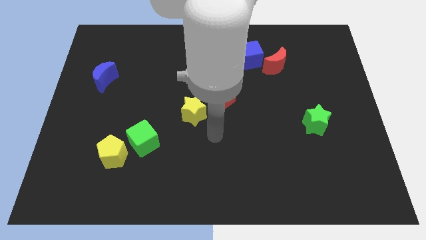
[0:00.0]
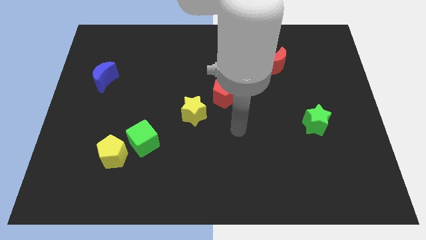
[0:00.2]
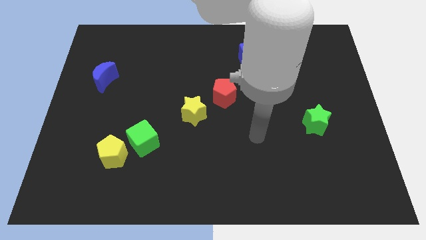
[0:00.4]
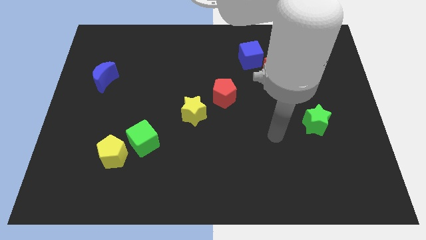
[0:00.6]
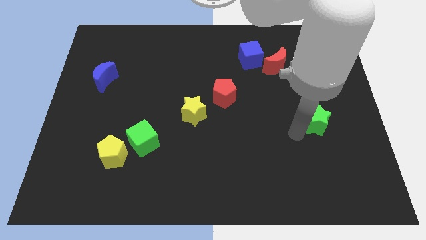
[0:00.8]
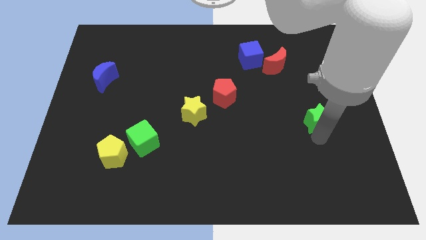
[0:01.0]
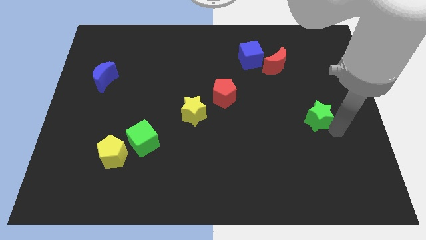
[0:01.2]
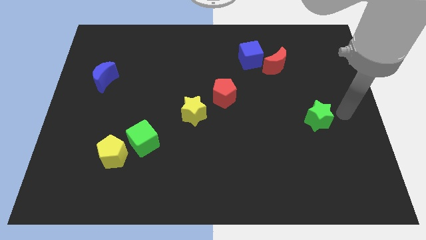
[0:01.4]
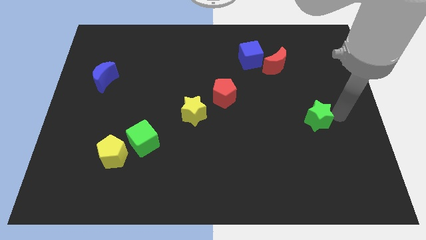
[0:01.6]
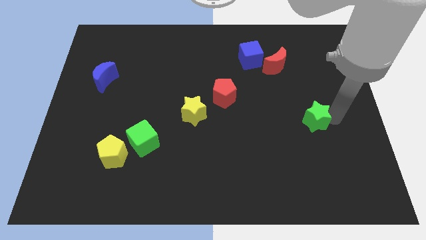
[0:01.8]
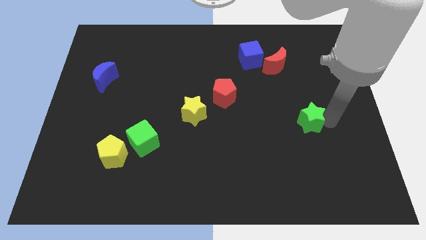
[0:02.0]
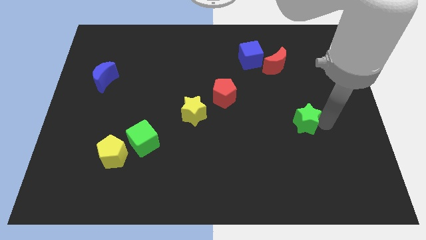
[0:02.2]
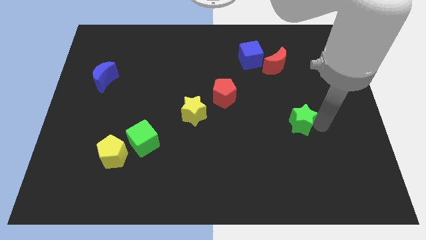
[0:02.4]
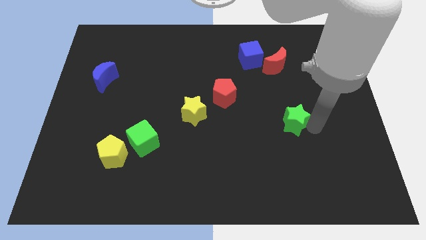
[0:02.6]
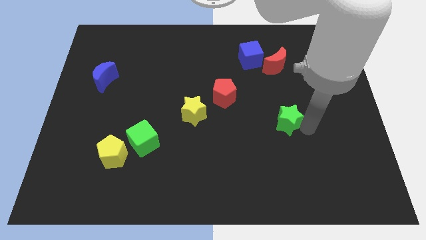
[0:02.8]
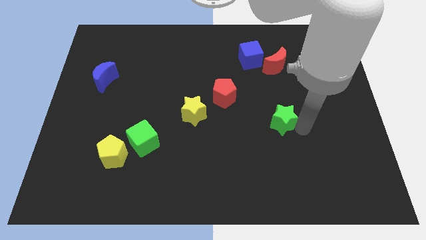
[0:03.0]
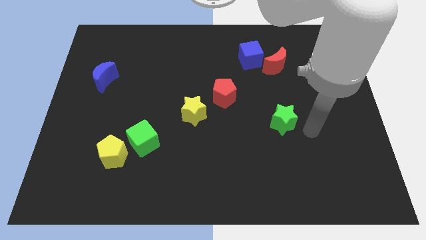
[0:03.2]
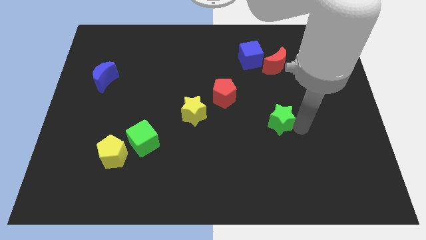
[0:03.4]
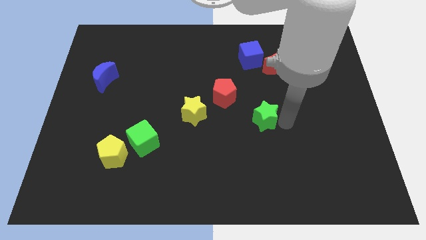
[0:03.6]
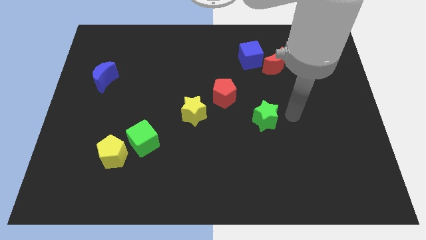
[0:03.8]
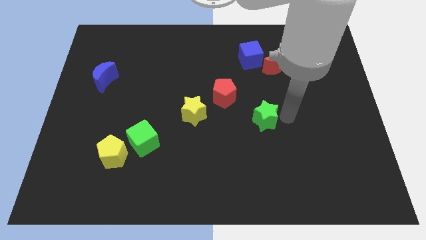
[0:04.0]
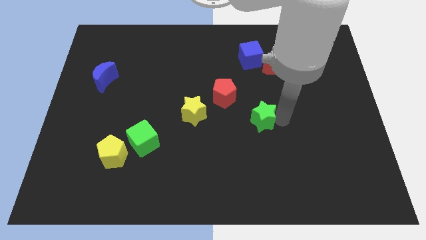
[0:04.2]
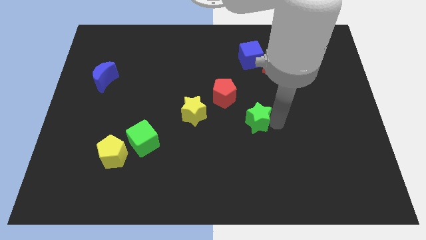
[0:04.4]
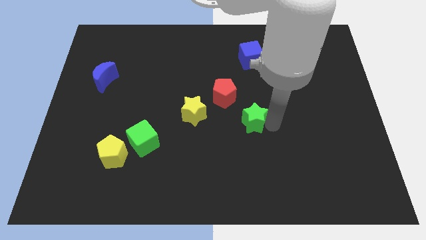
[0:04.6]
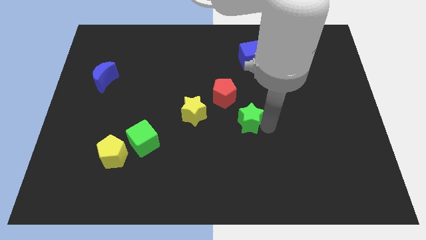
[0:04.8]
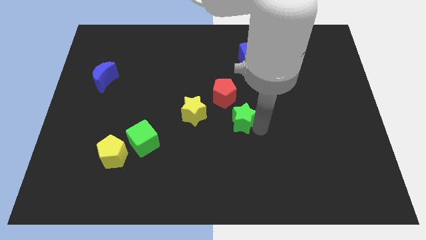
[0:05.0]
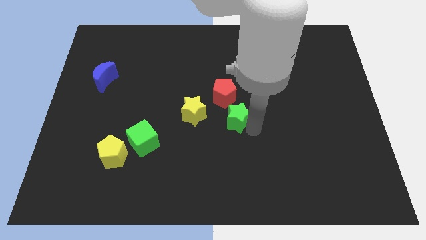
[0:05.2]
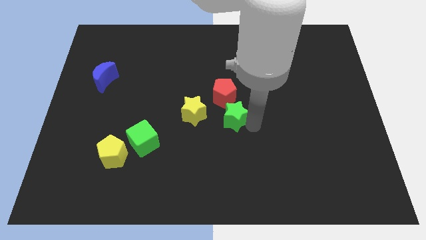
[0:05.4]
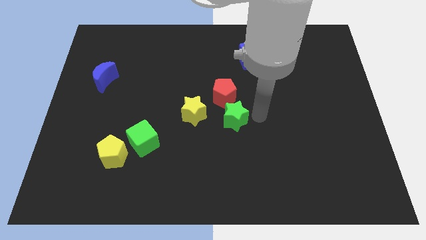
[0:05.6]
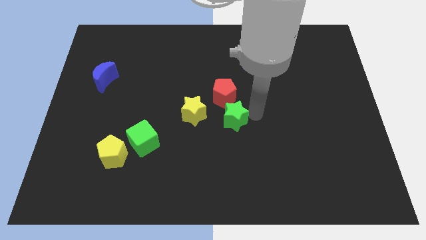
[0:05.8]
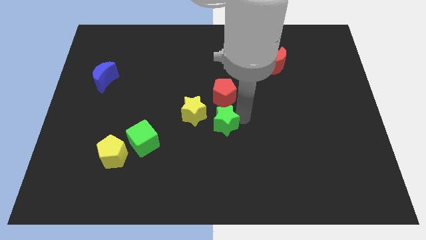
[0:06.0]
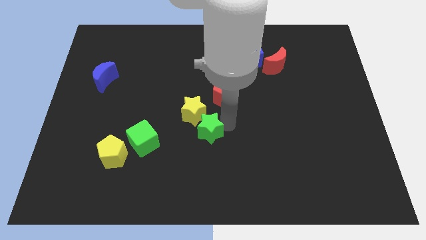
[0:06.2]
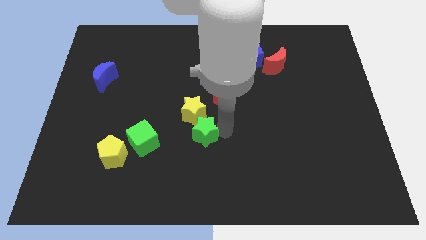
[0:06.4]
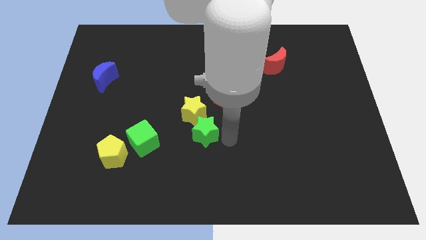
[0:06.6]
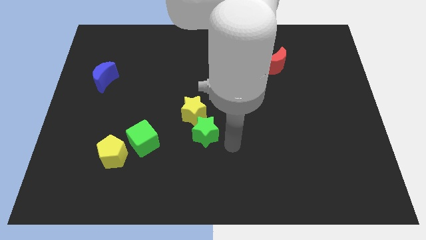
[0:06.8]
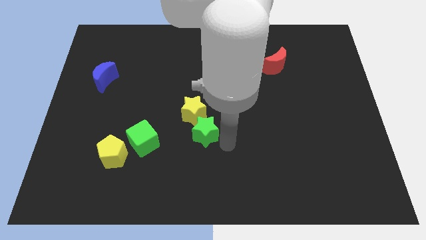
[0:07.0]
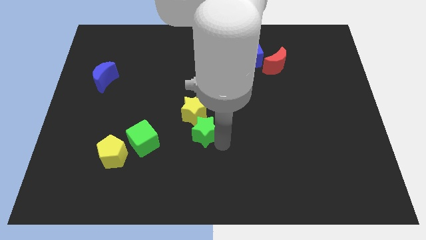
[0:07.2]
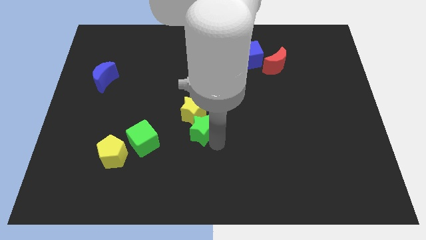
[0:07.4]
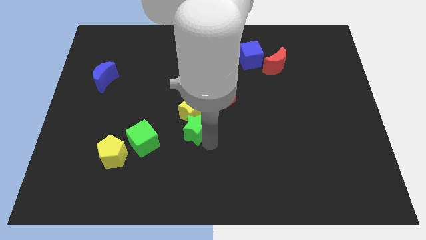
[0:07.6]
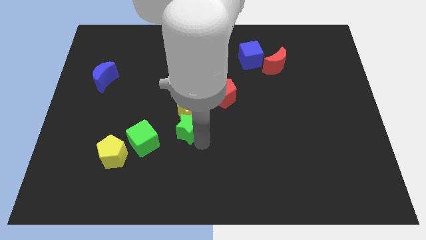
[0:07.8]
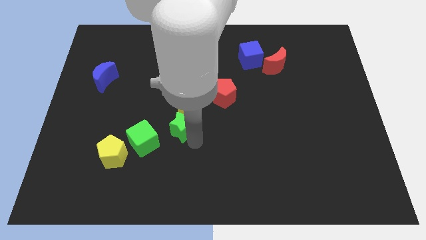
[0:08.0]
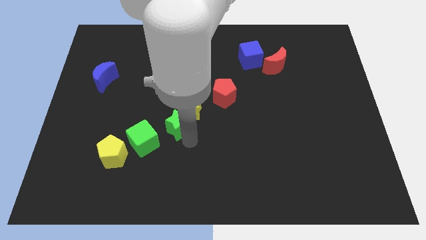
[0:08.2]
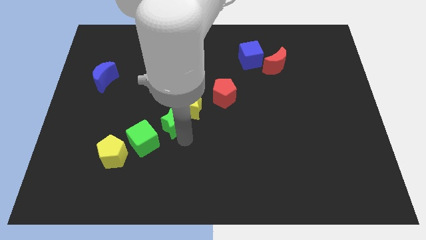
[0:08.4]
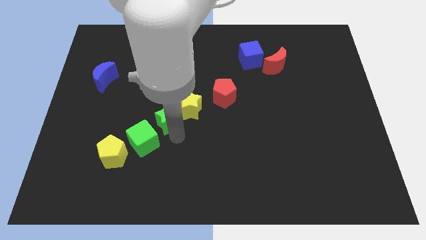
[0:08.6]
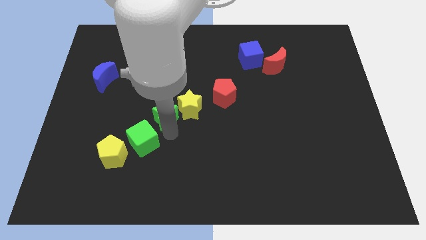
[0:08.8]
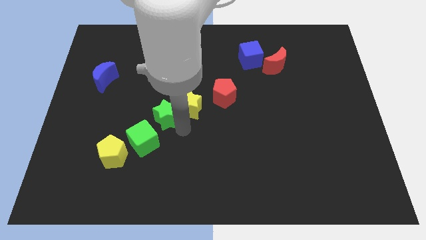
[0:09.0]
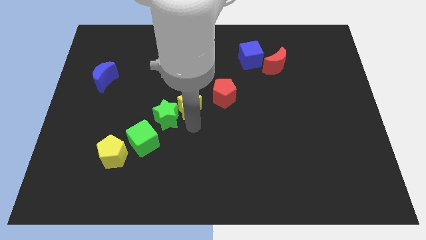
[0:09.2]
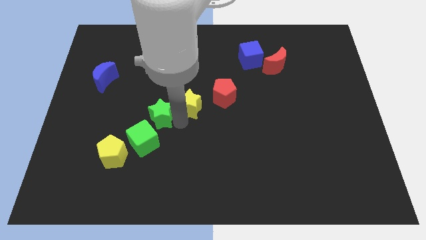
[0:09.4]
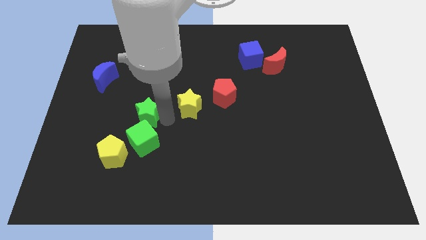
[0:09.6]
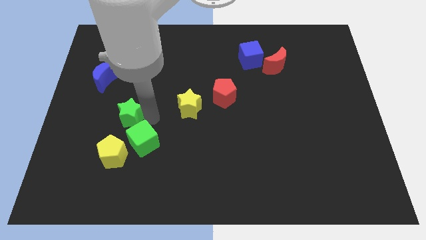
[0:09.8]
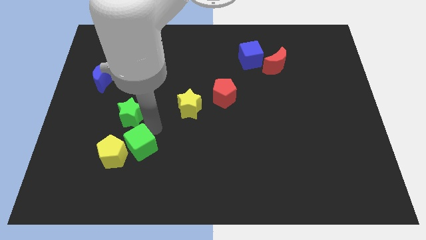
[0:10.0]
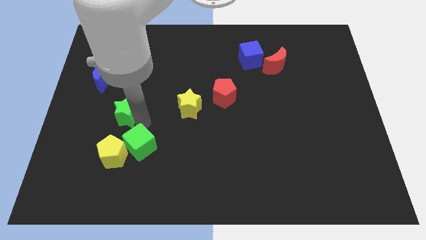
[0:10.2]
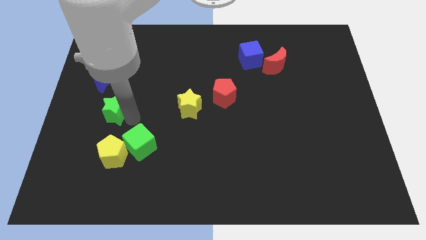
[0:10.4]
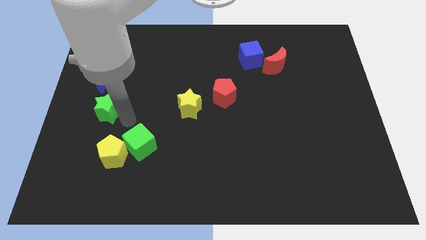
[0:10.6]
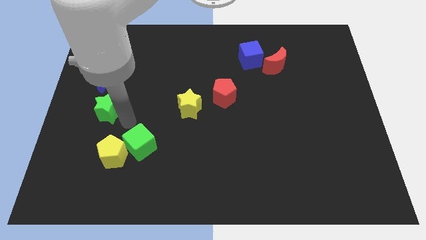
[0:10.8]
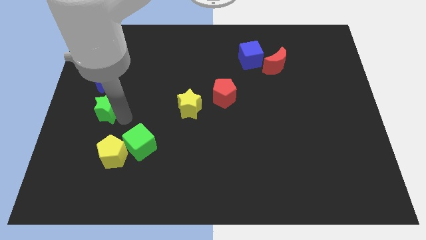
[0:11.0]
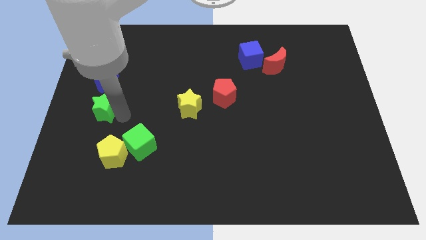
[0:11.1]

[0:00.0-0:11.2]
slide the green star to the left side of the board
